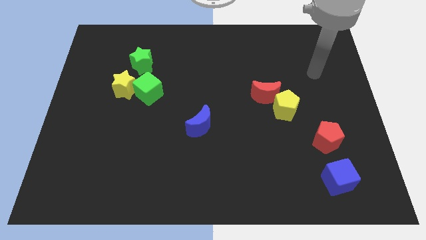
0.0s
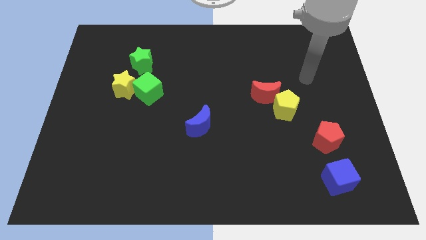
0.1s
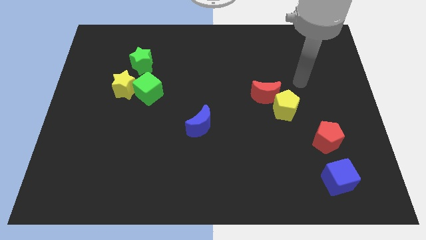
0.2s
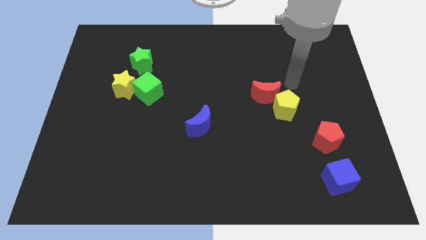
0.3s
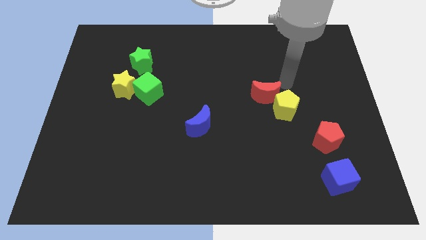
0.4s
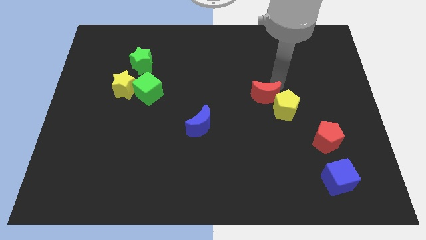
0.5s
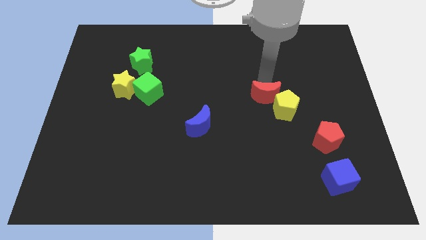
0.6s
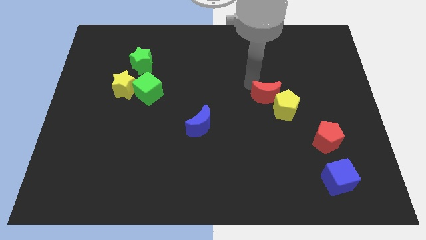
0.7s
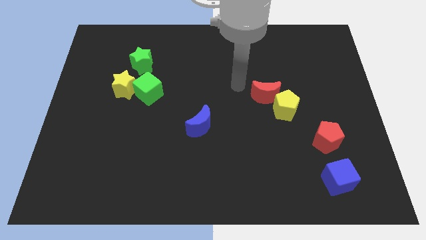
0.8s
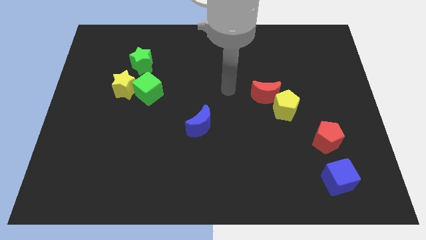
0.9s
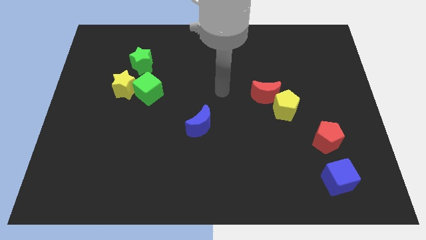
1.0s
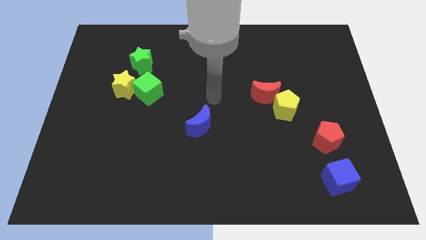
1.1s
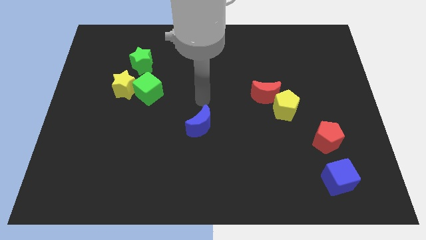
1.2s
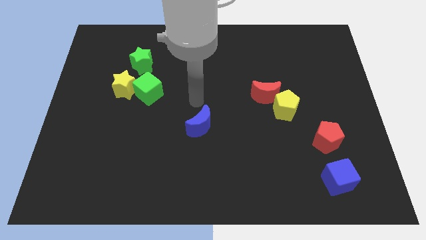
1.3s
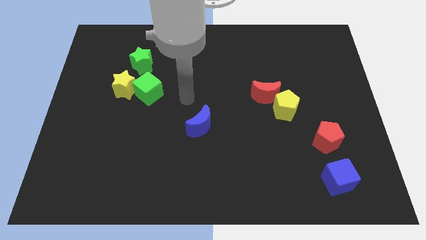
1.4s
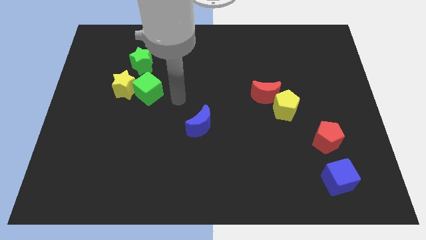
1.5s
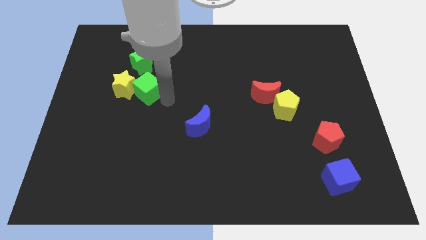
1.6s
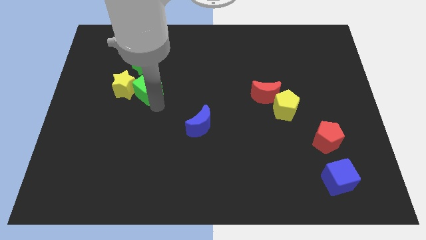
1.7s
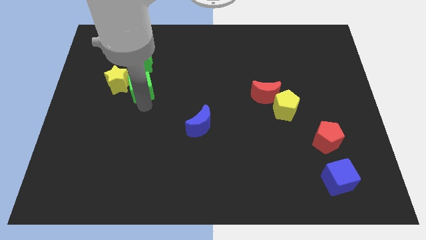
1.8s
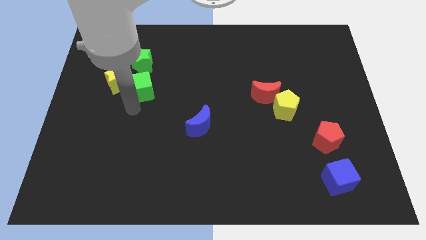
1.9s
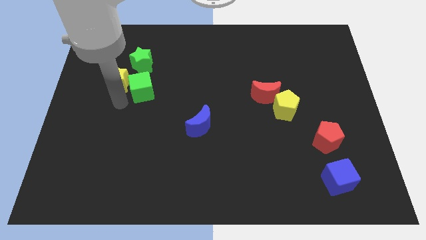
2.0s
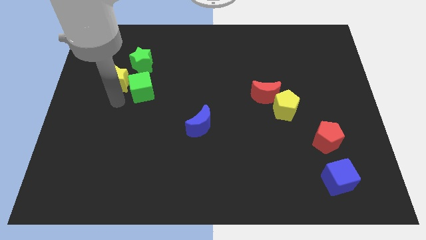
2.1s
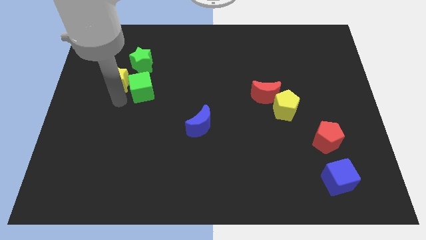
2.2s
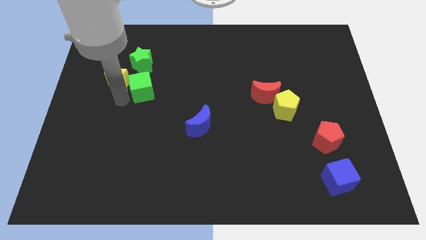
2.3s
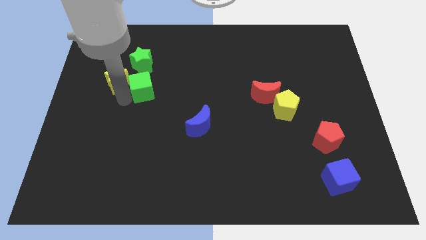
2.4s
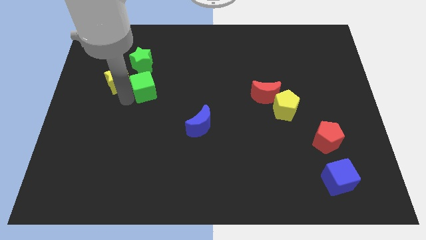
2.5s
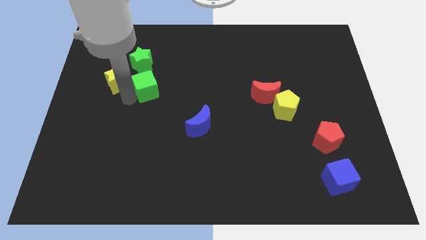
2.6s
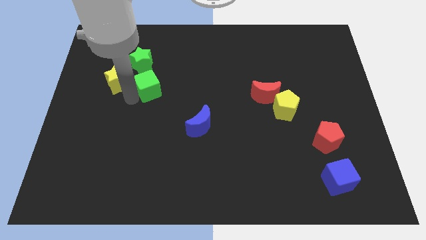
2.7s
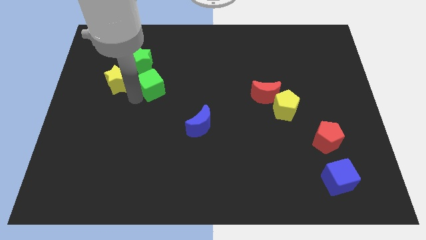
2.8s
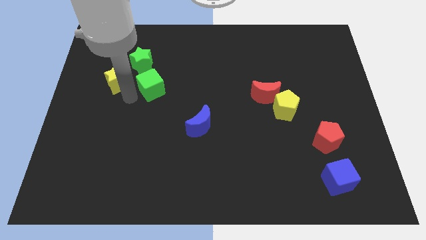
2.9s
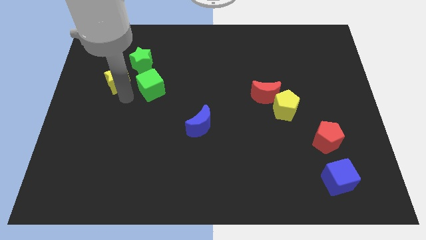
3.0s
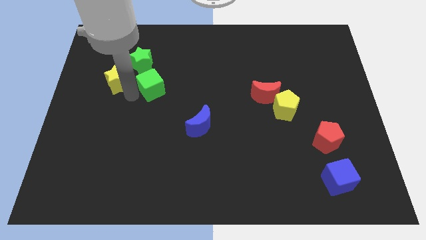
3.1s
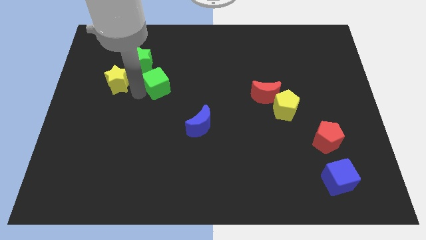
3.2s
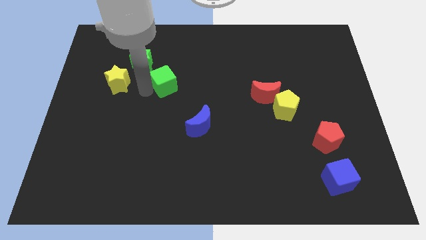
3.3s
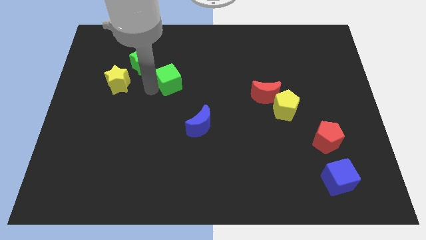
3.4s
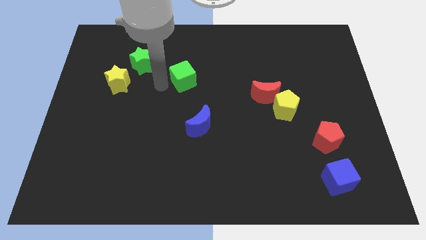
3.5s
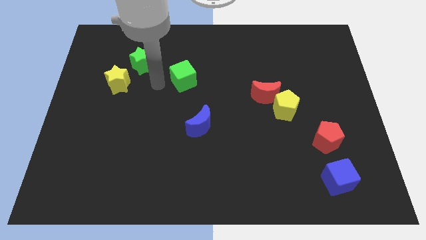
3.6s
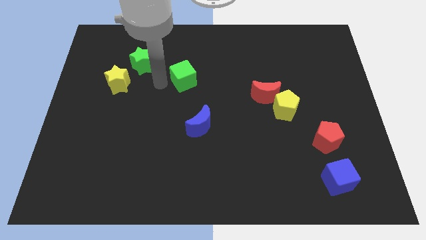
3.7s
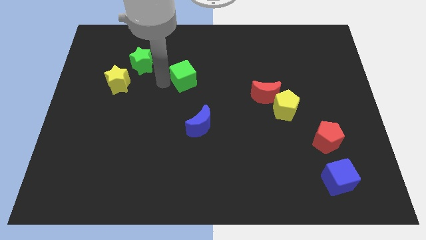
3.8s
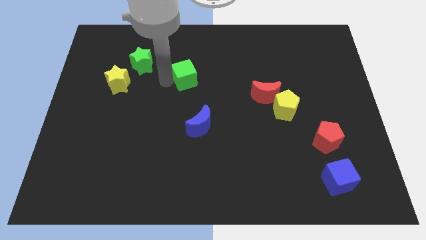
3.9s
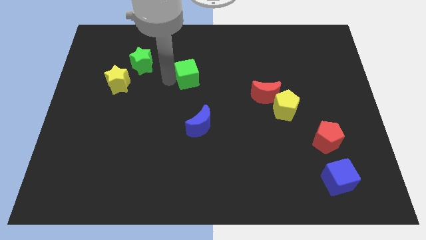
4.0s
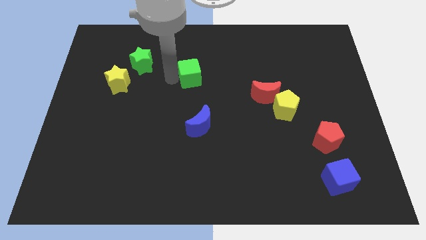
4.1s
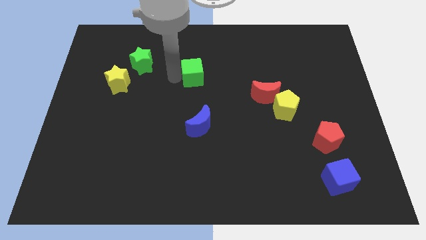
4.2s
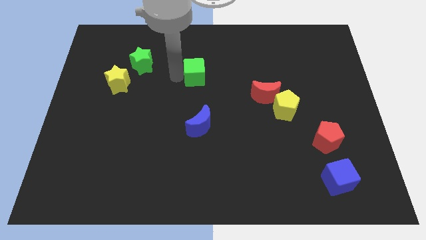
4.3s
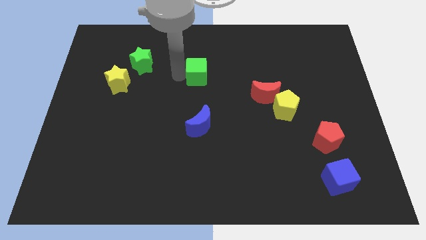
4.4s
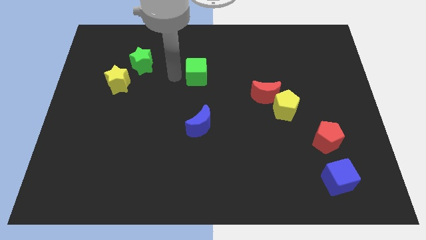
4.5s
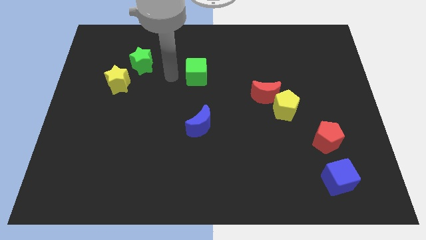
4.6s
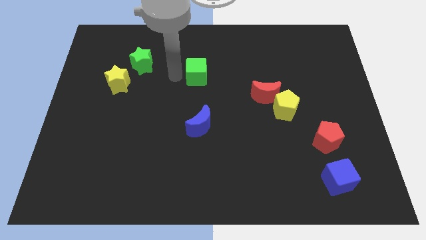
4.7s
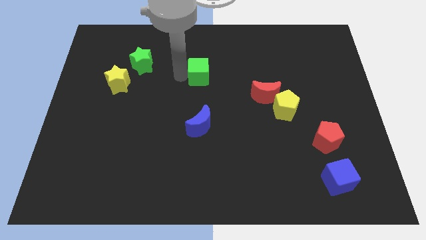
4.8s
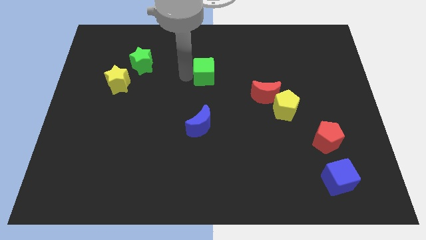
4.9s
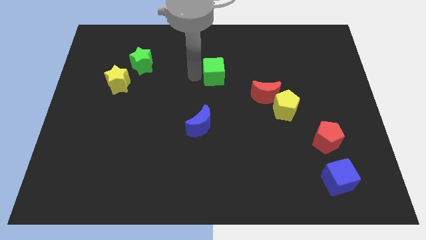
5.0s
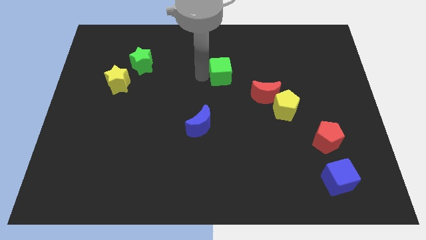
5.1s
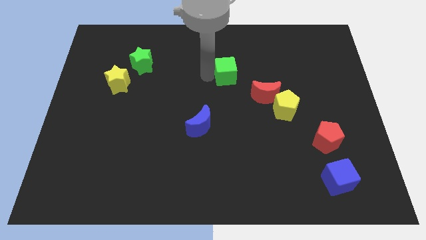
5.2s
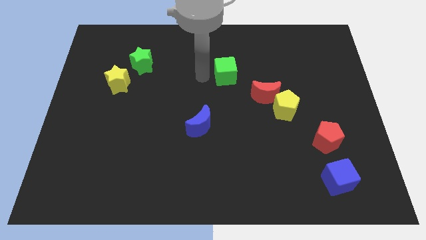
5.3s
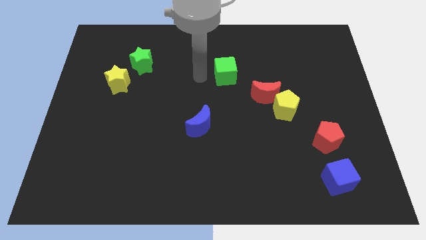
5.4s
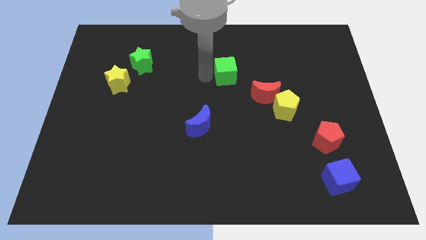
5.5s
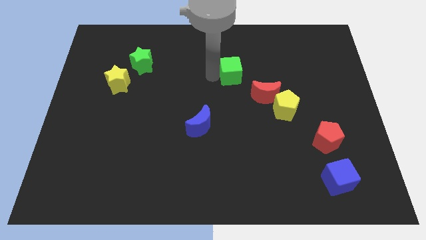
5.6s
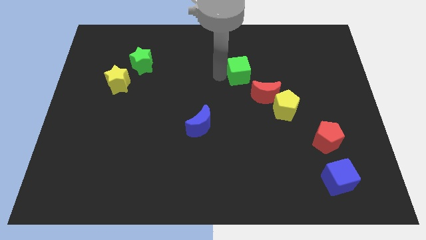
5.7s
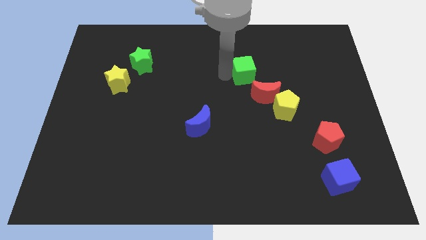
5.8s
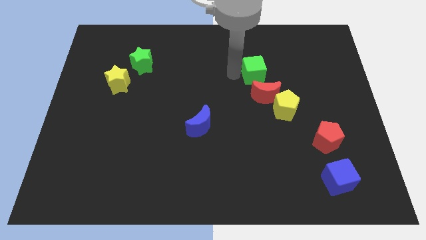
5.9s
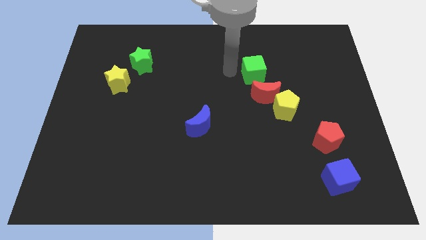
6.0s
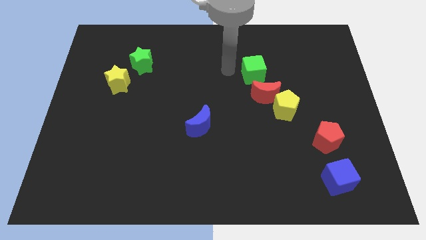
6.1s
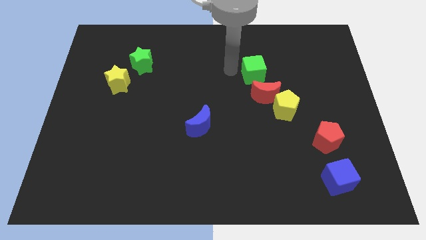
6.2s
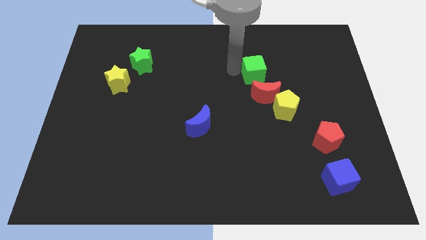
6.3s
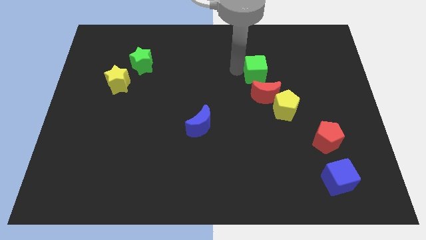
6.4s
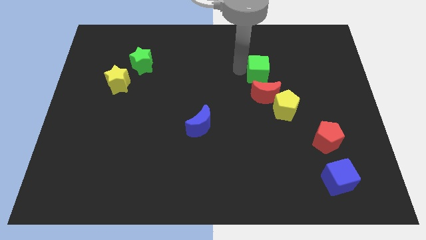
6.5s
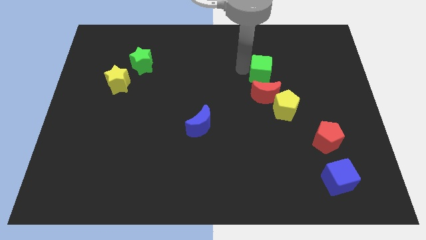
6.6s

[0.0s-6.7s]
push the green cube to the top side of the yellow pentagon
